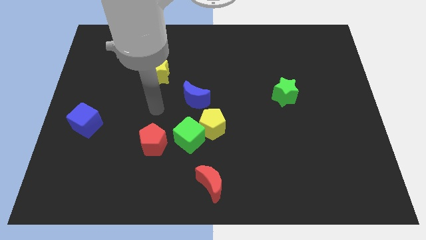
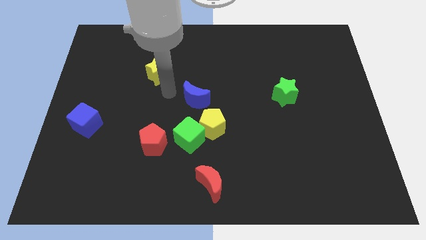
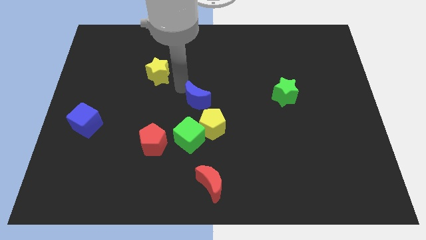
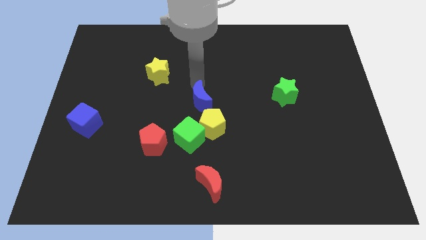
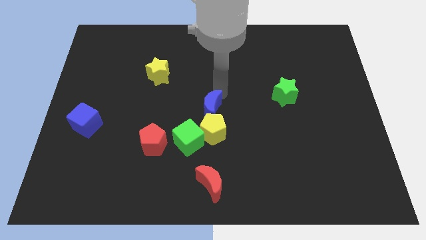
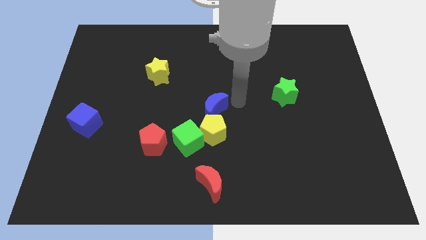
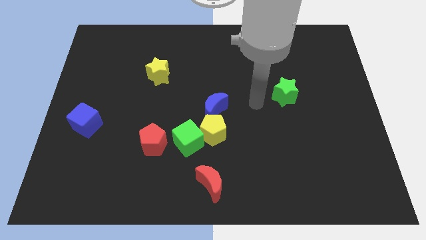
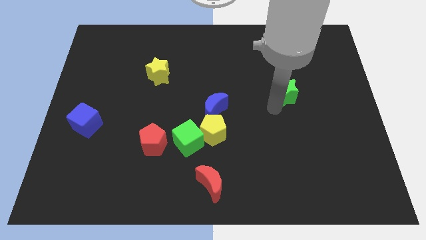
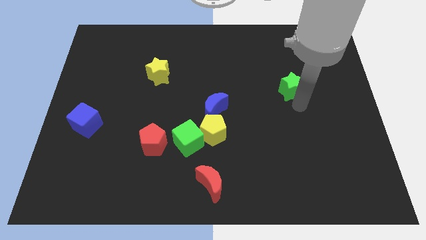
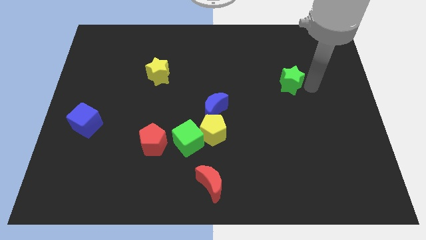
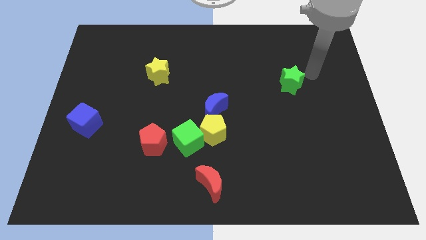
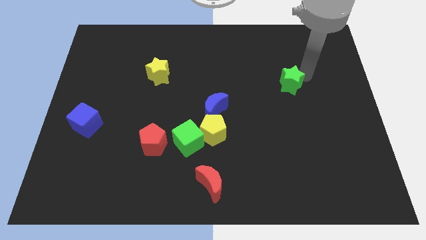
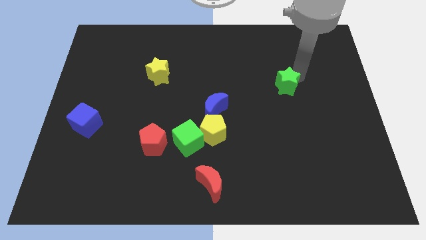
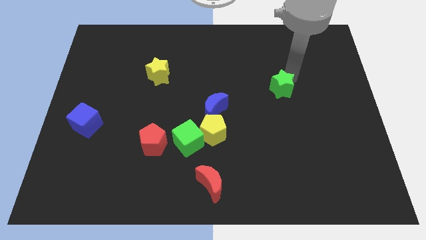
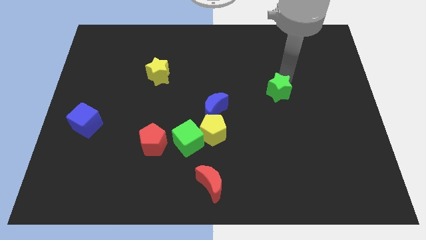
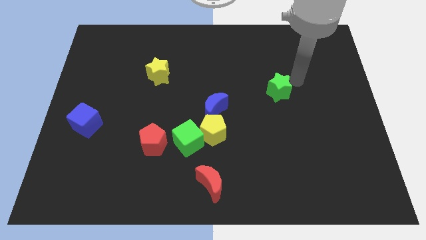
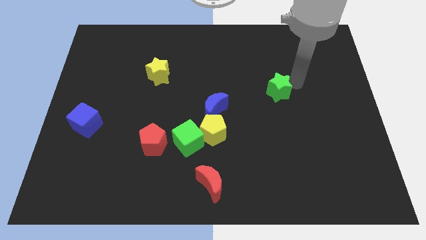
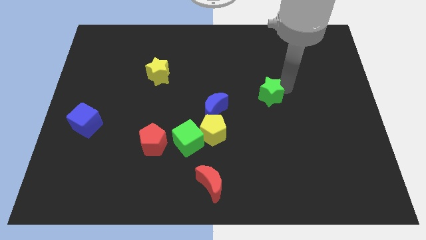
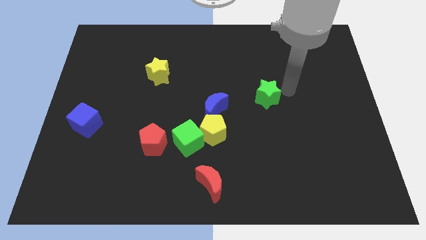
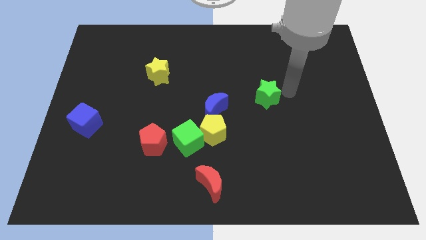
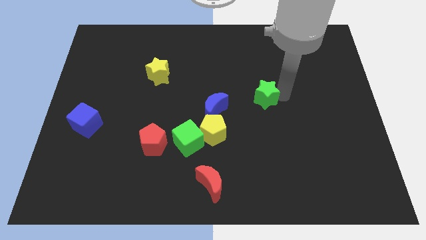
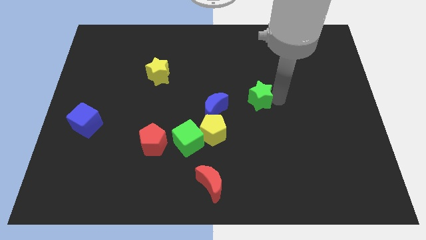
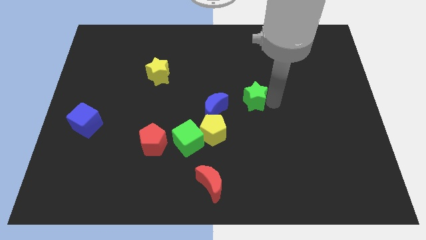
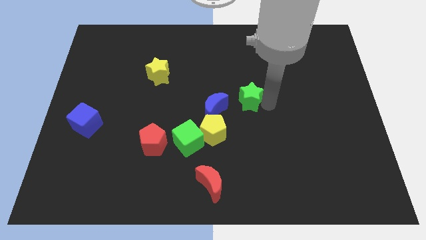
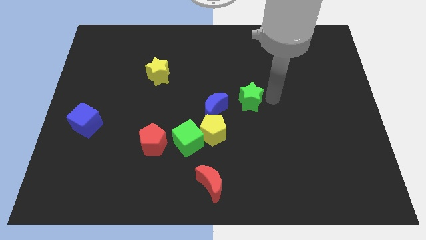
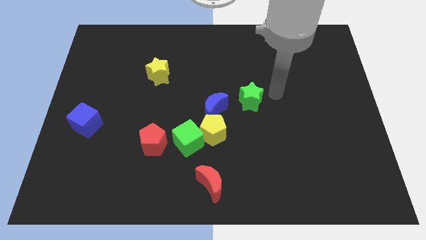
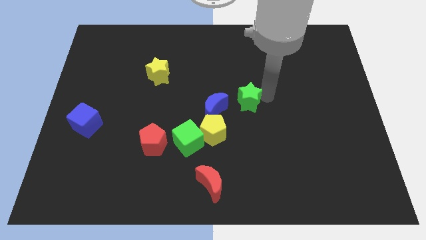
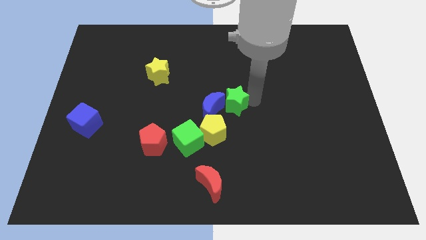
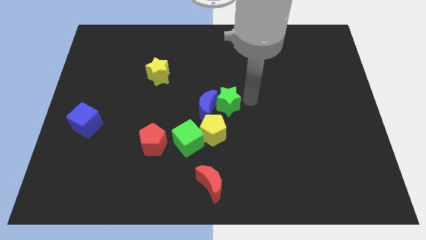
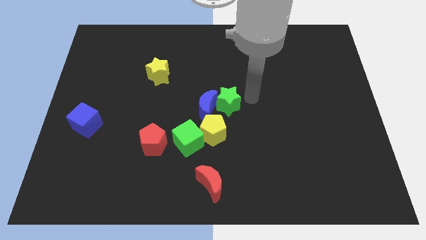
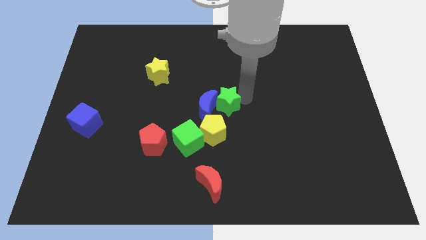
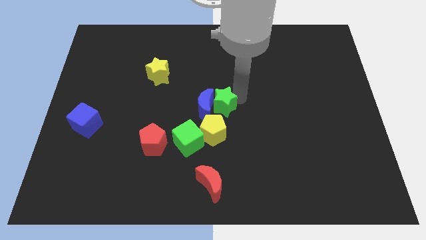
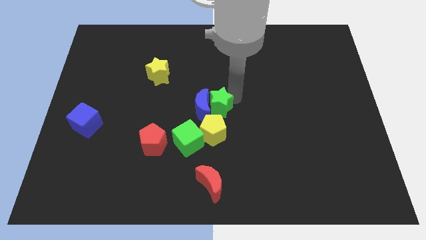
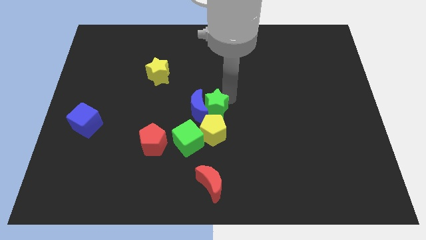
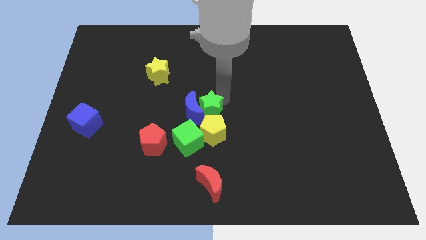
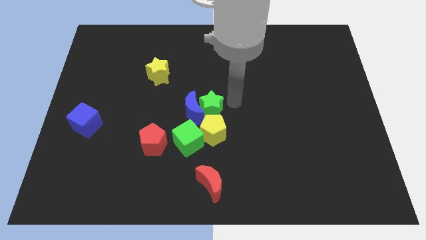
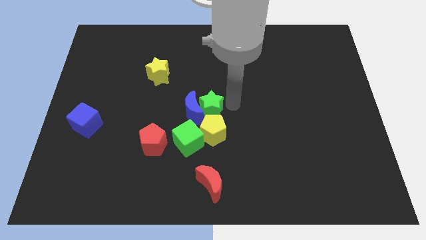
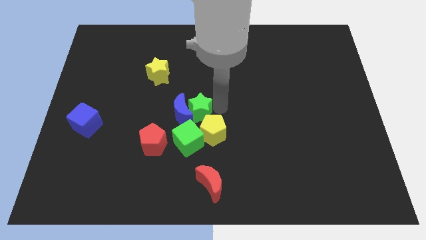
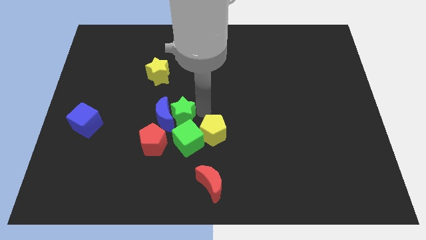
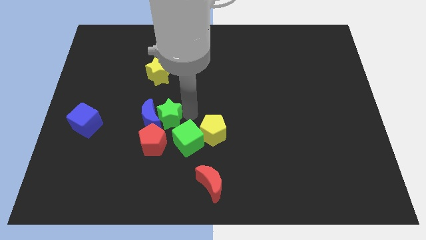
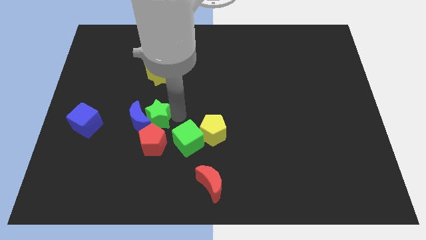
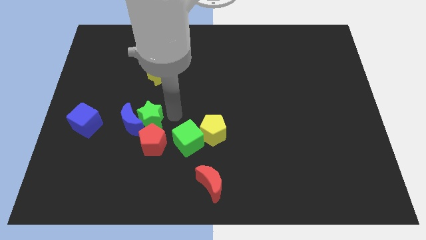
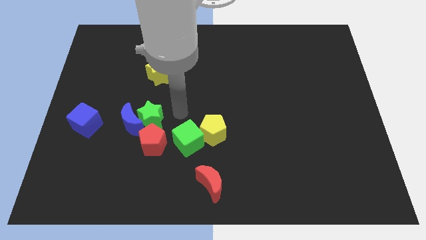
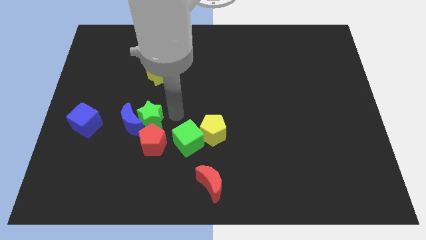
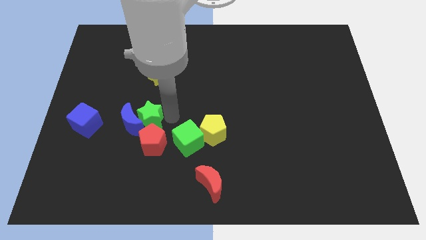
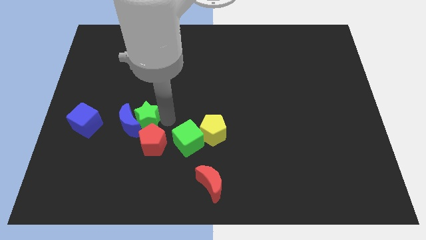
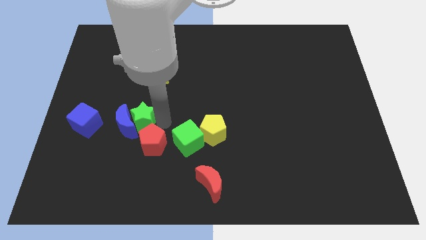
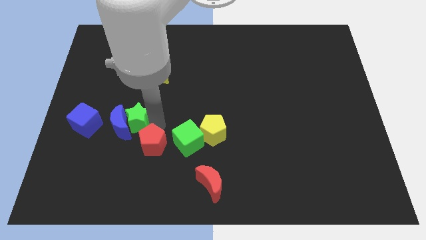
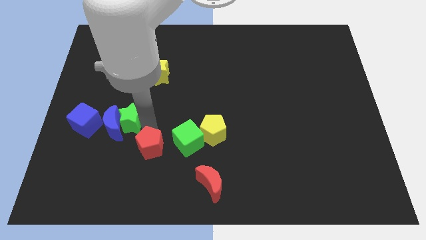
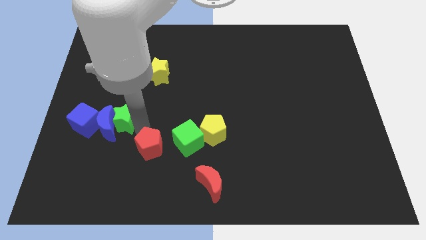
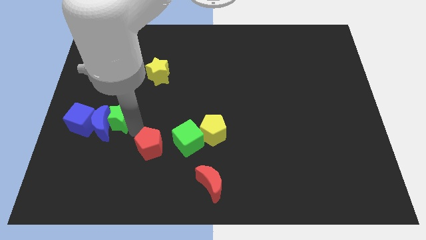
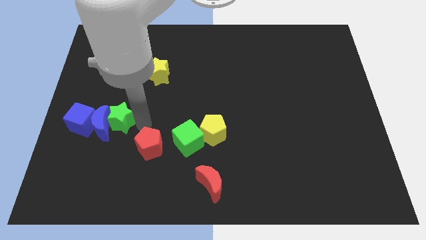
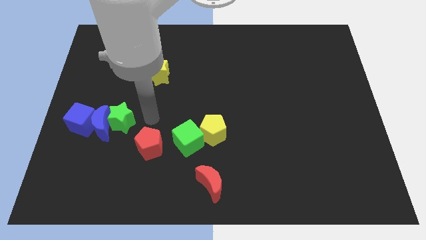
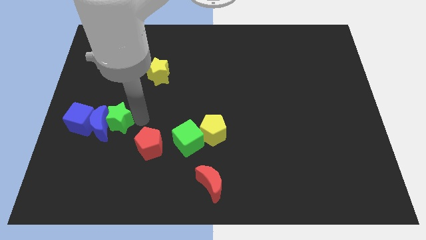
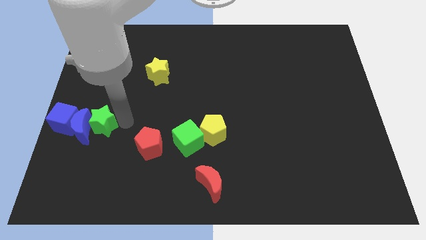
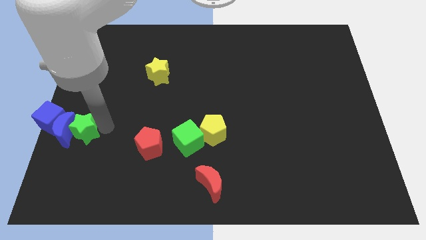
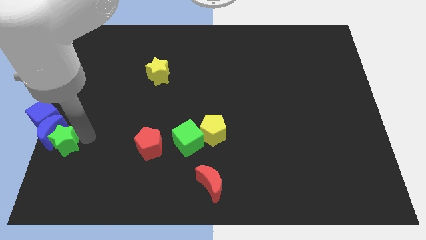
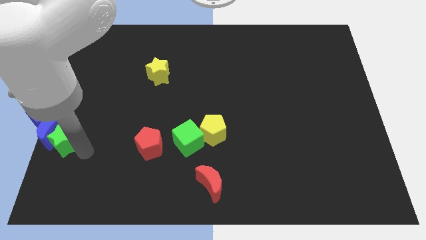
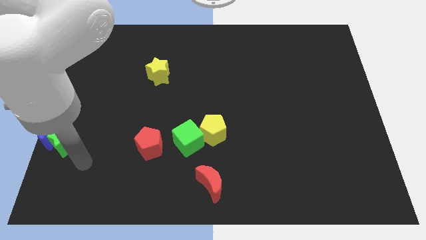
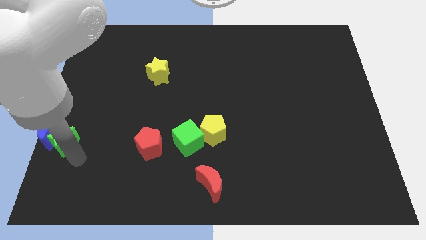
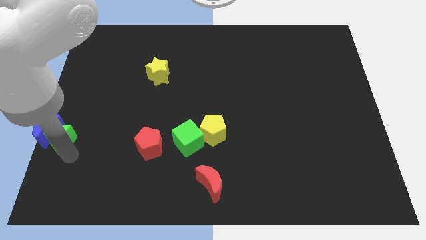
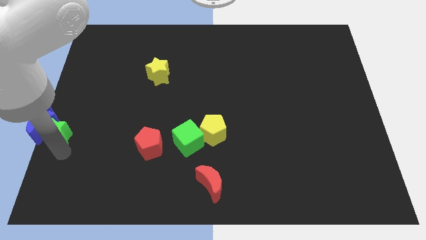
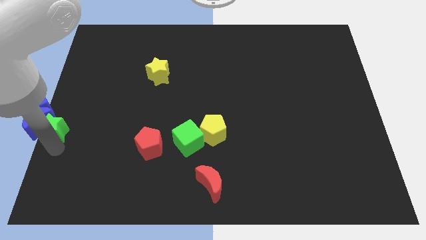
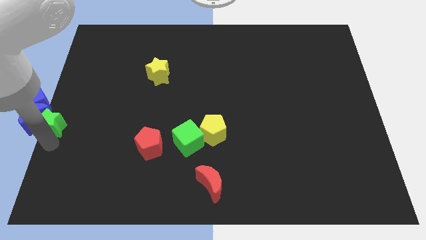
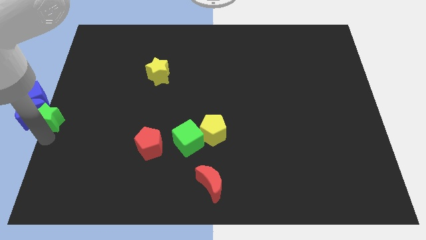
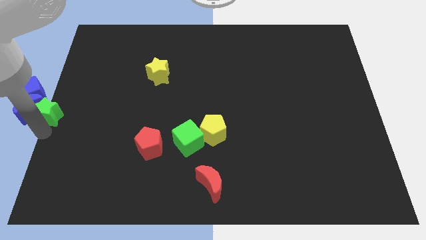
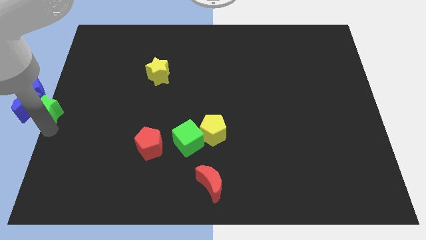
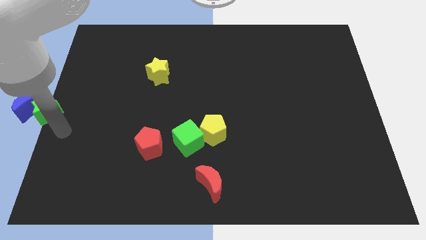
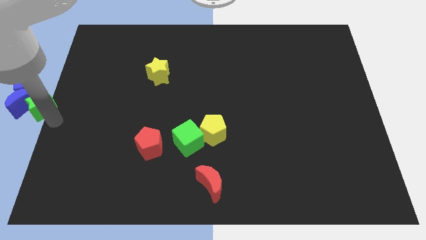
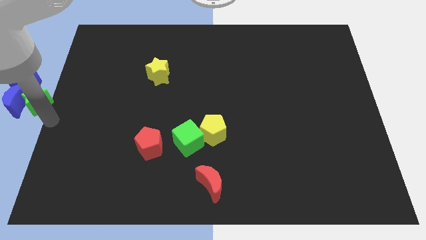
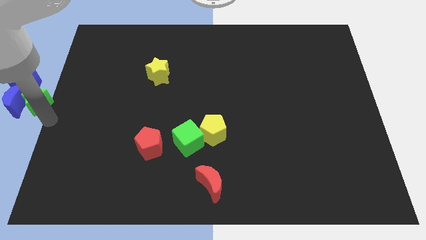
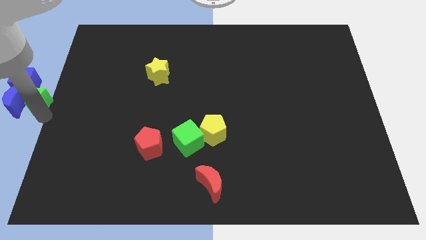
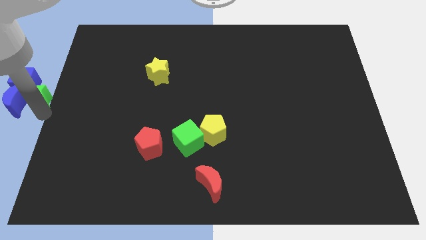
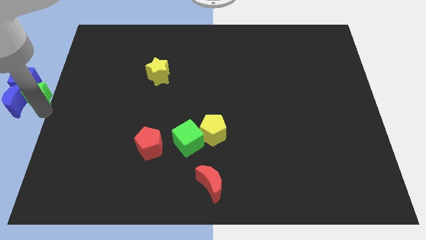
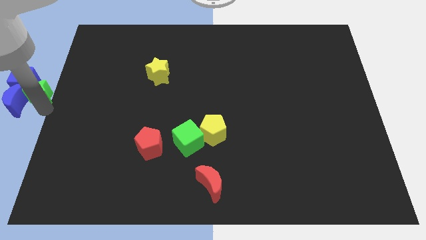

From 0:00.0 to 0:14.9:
move the green star to the blue cube

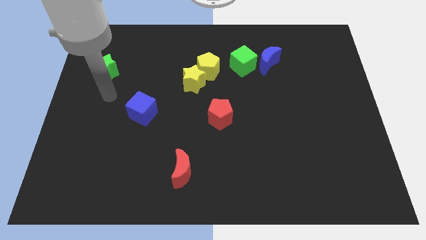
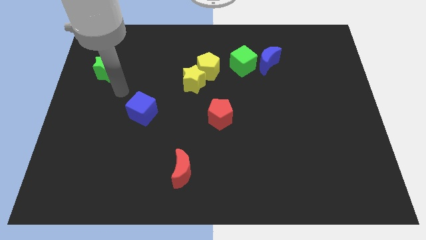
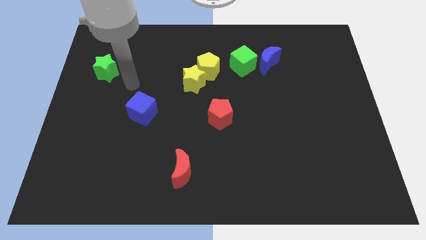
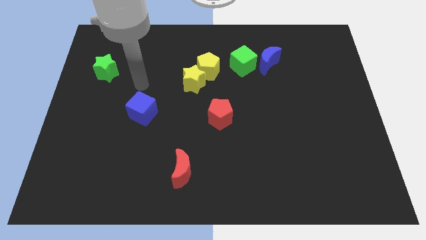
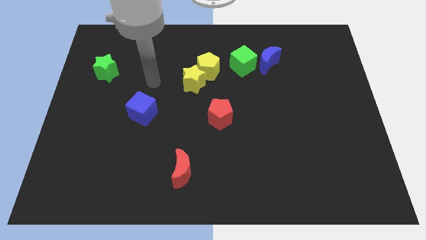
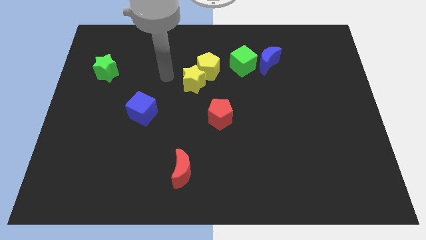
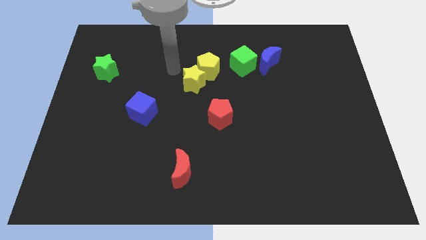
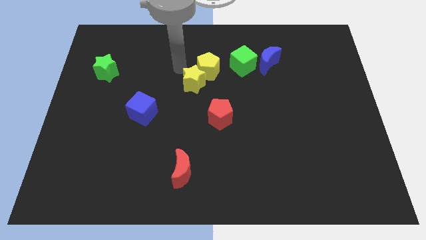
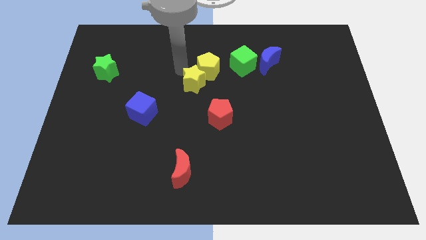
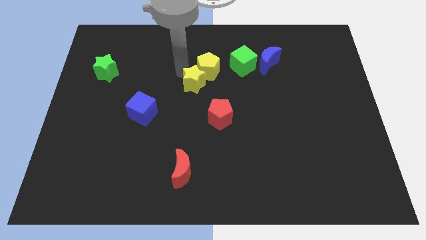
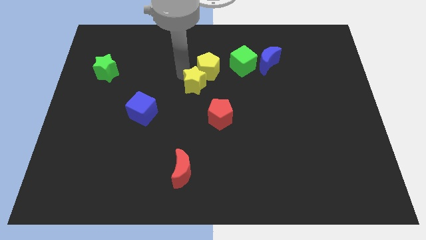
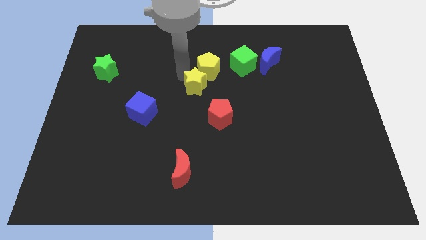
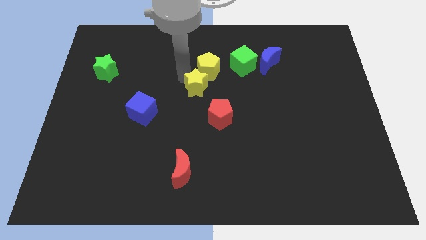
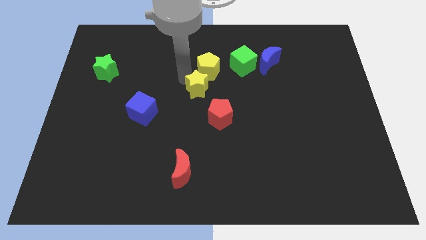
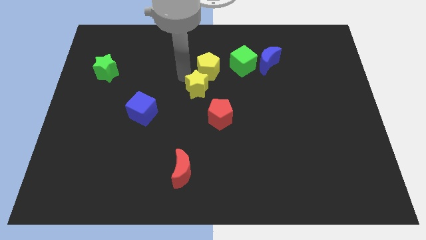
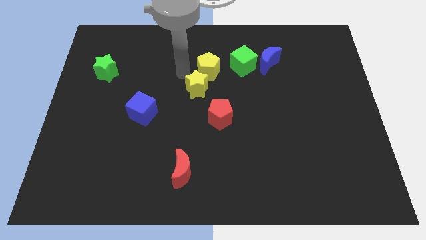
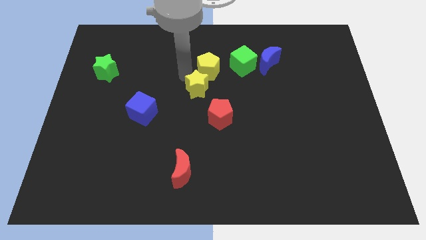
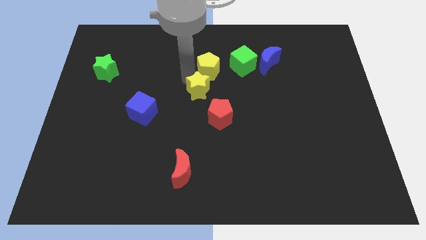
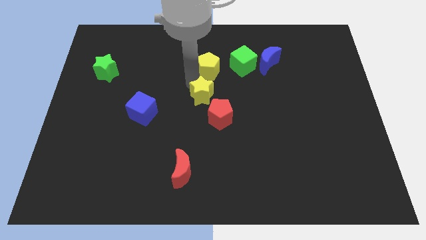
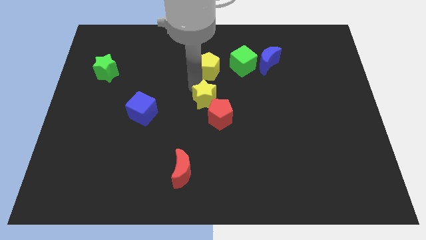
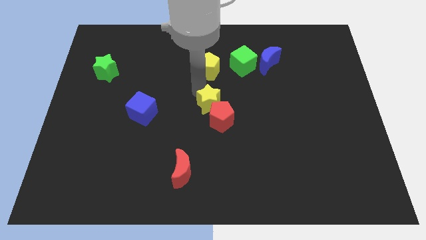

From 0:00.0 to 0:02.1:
put the yellow star next to the red pentagon
